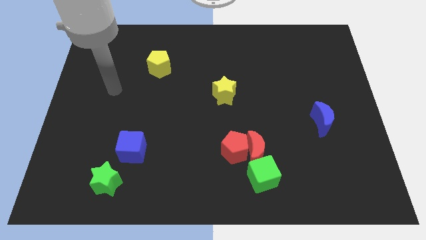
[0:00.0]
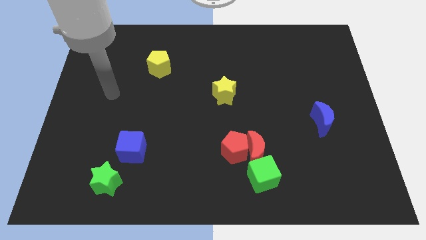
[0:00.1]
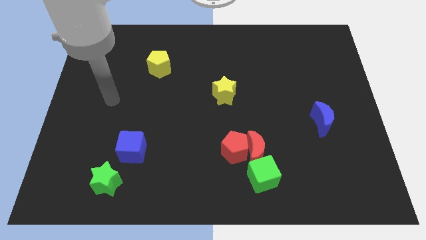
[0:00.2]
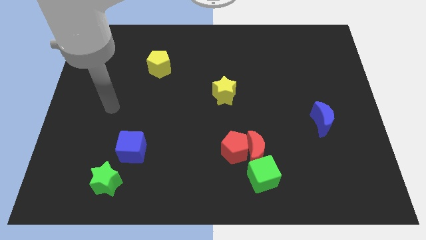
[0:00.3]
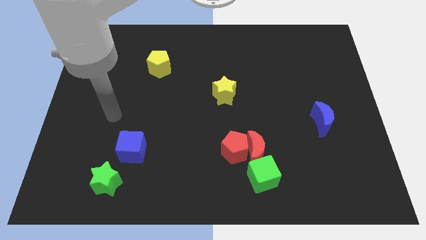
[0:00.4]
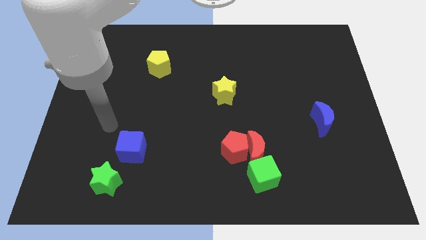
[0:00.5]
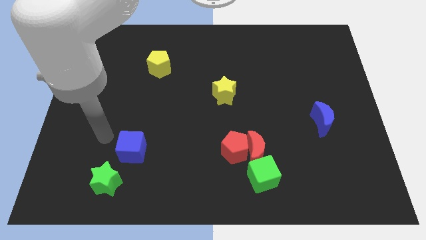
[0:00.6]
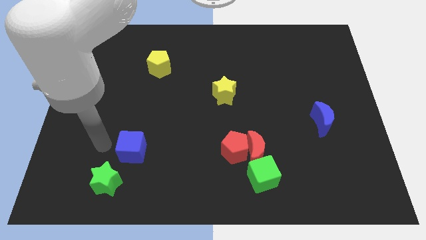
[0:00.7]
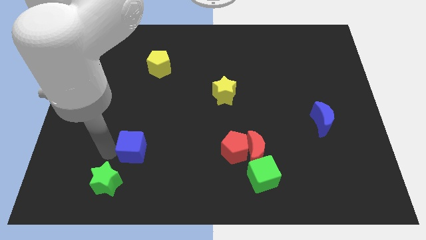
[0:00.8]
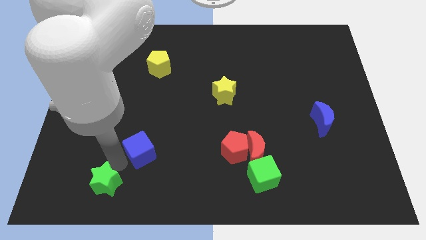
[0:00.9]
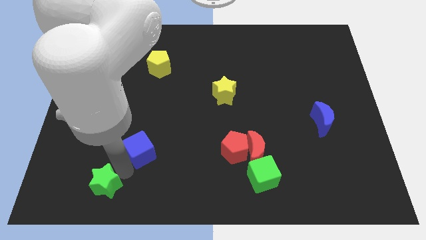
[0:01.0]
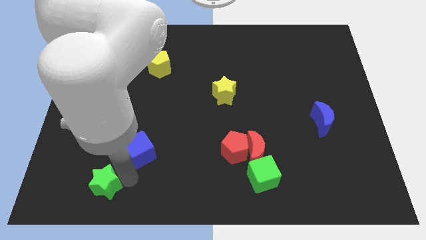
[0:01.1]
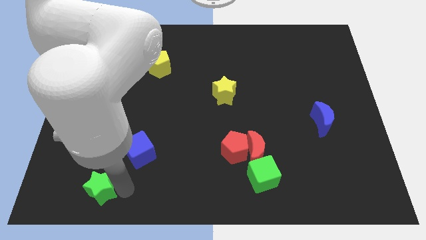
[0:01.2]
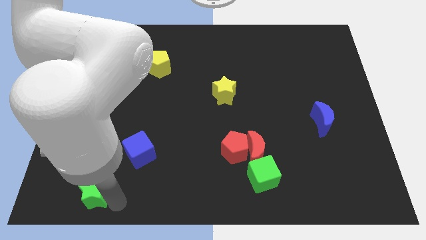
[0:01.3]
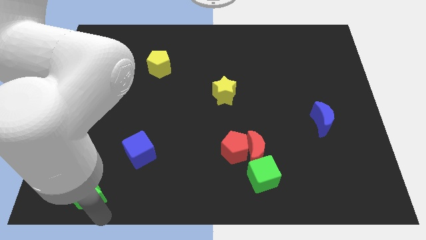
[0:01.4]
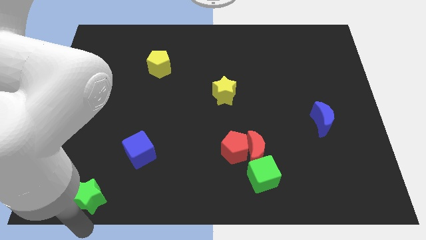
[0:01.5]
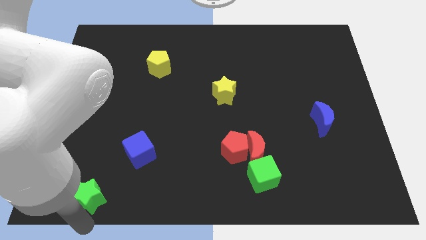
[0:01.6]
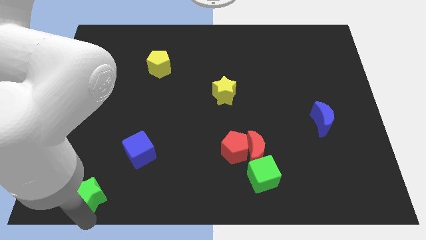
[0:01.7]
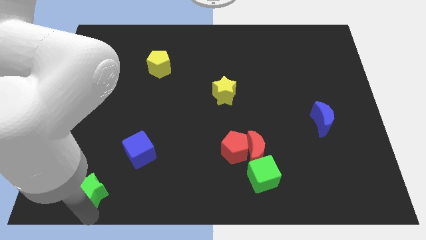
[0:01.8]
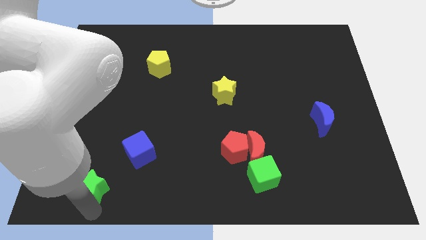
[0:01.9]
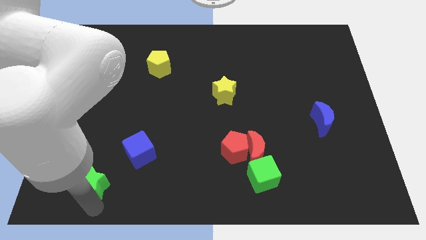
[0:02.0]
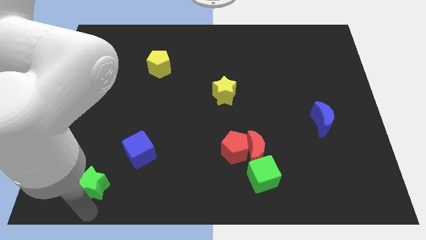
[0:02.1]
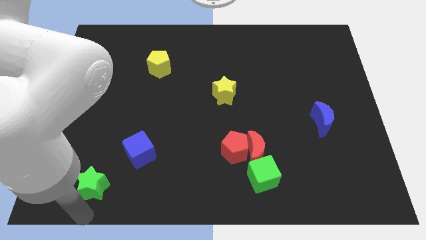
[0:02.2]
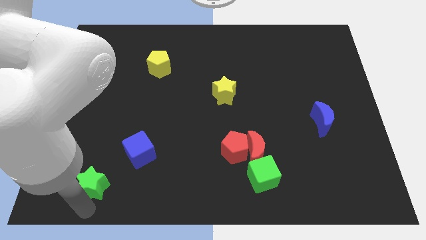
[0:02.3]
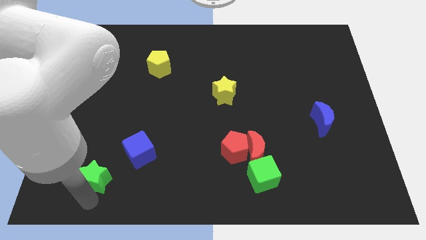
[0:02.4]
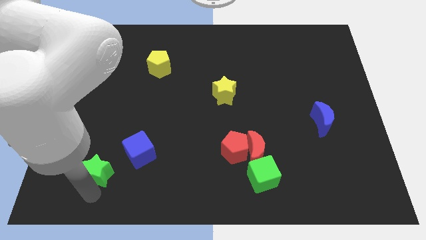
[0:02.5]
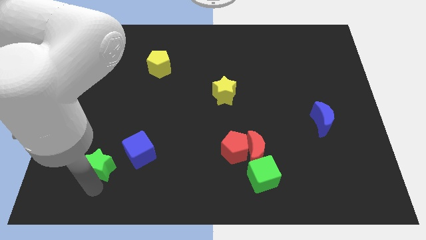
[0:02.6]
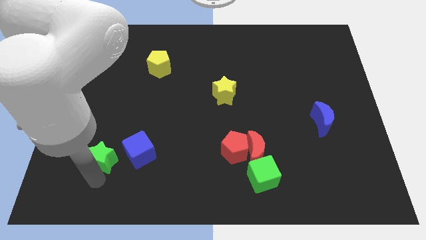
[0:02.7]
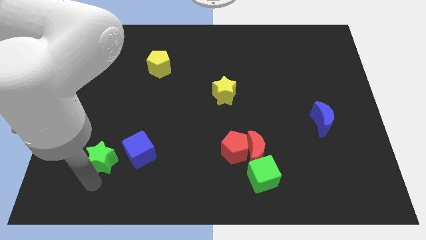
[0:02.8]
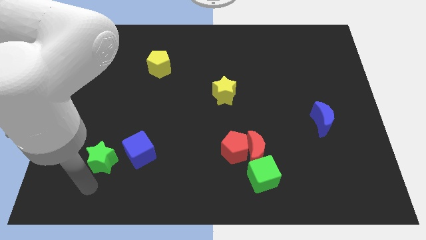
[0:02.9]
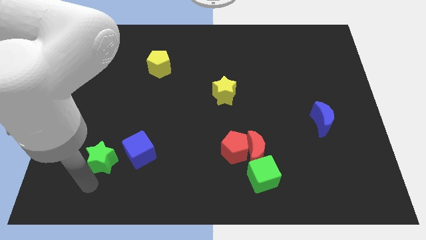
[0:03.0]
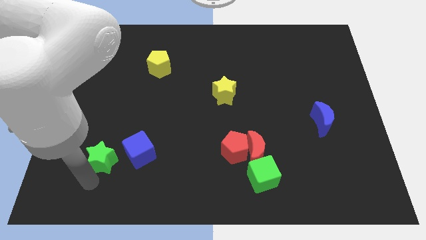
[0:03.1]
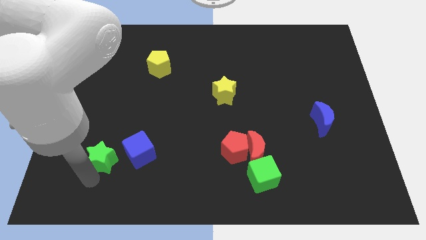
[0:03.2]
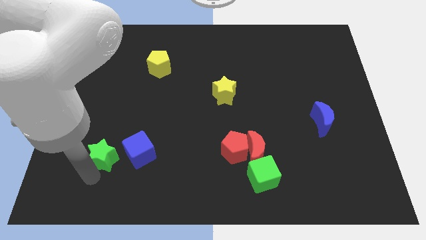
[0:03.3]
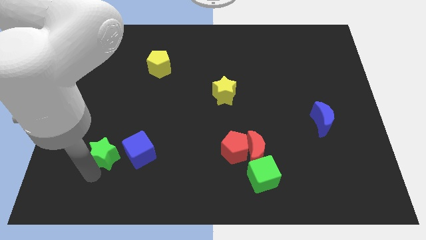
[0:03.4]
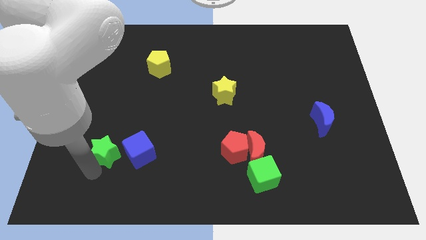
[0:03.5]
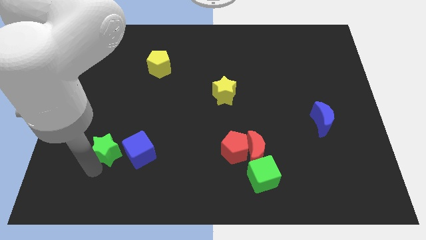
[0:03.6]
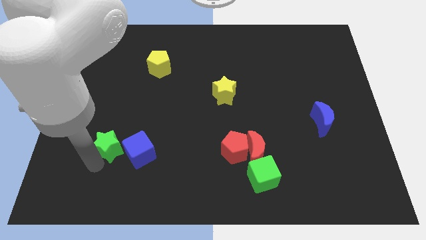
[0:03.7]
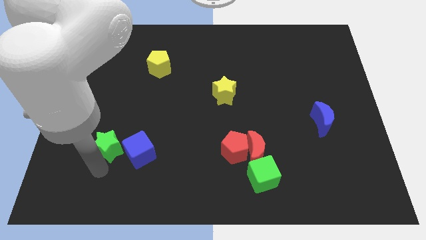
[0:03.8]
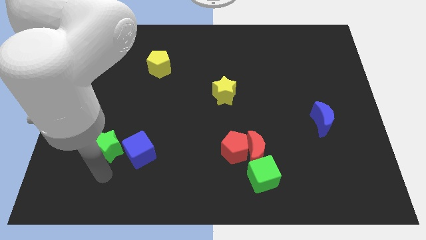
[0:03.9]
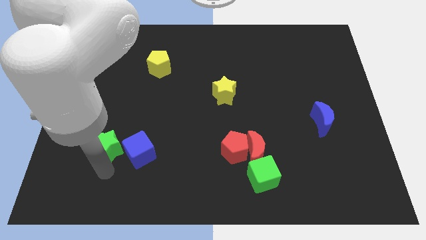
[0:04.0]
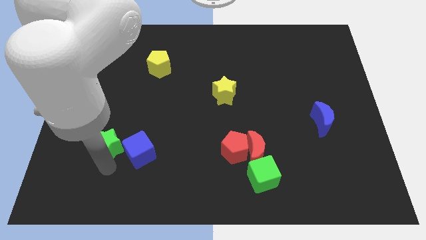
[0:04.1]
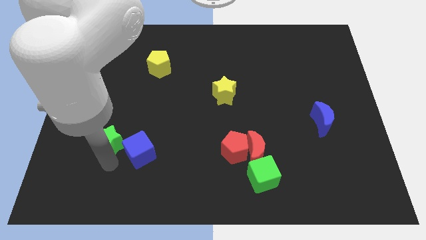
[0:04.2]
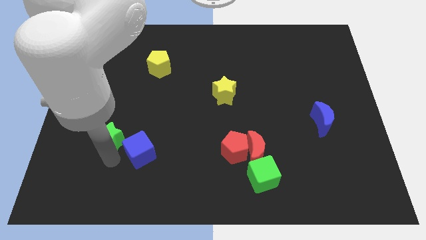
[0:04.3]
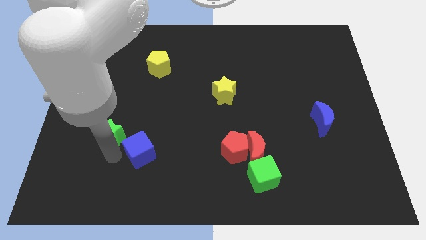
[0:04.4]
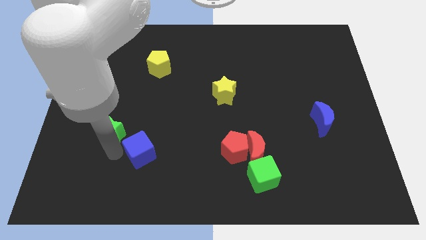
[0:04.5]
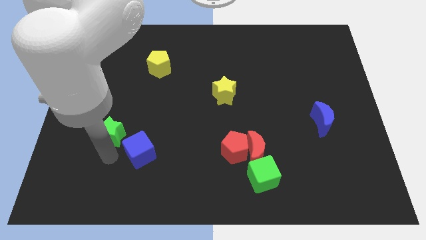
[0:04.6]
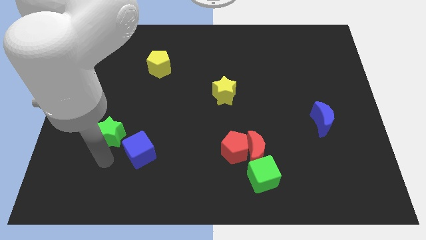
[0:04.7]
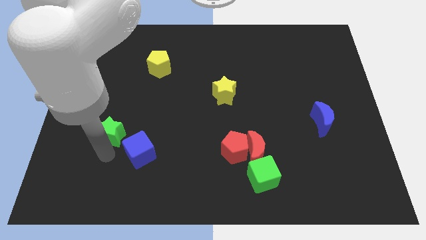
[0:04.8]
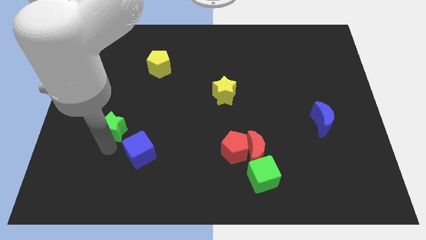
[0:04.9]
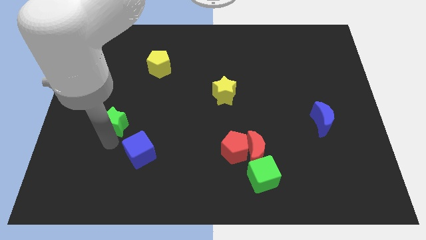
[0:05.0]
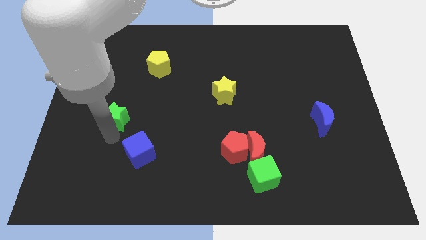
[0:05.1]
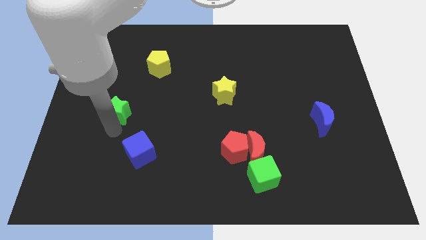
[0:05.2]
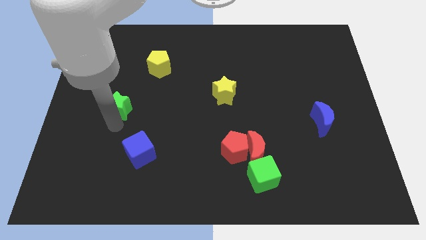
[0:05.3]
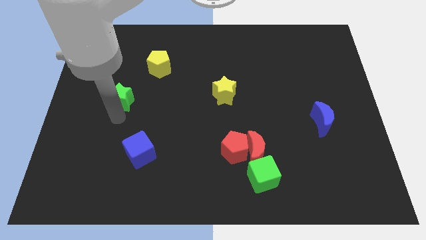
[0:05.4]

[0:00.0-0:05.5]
move the green star upwards

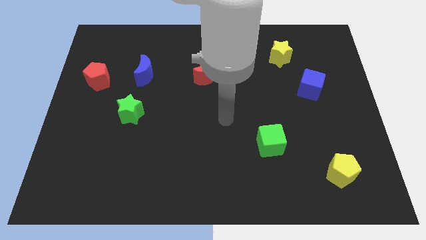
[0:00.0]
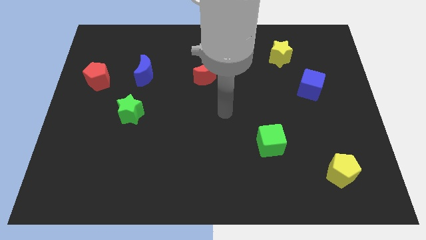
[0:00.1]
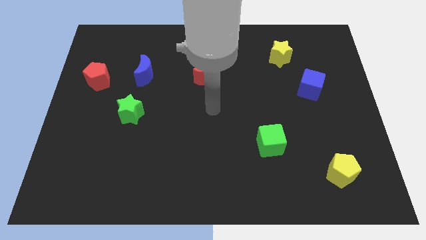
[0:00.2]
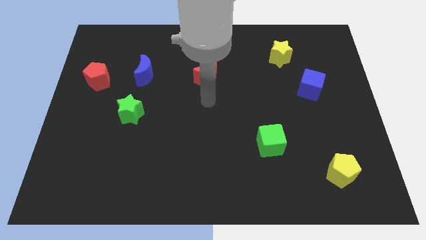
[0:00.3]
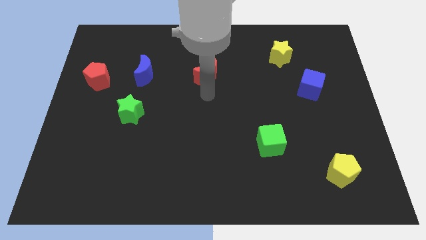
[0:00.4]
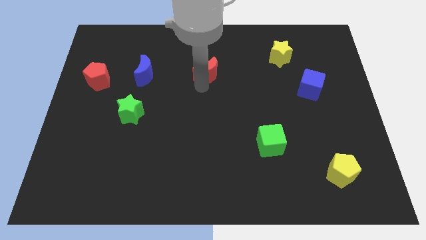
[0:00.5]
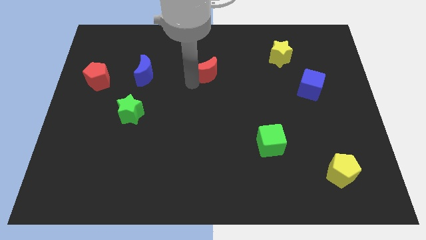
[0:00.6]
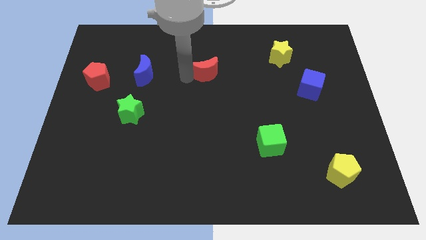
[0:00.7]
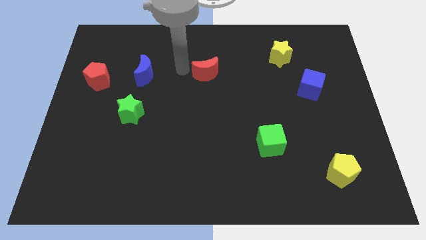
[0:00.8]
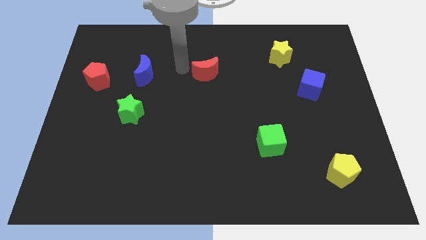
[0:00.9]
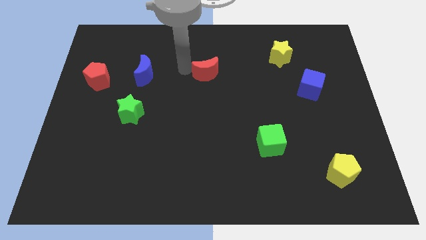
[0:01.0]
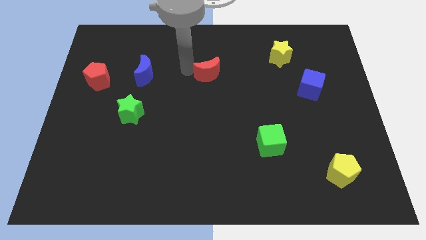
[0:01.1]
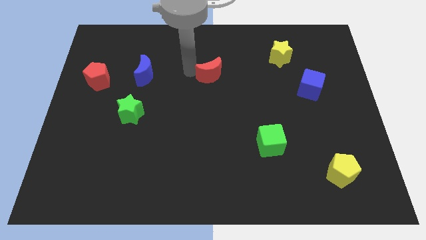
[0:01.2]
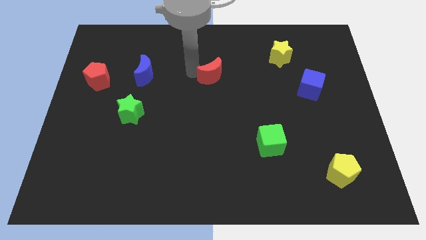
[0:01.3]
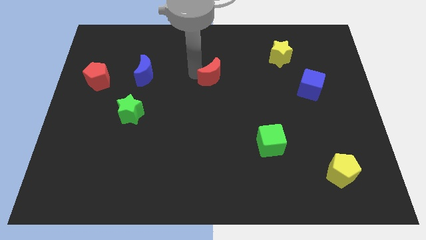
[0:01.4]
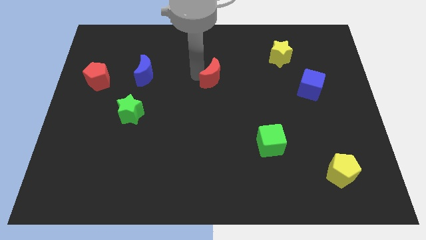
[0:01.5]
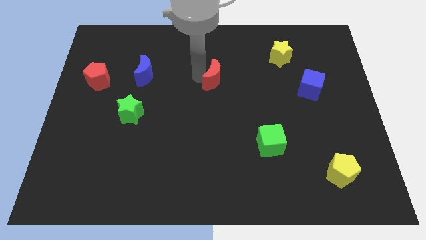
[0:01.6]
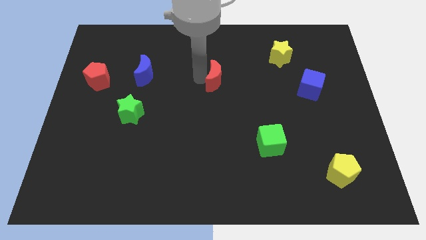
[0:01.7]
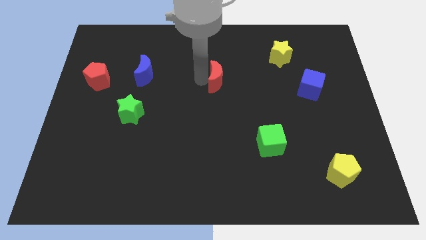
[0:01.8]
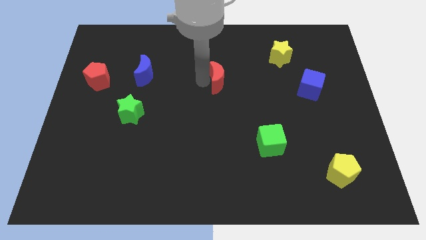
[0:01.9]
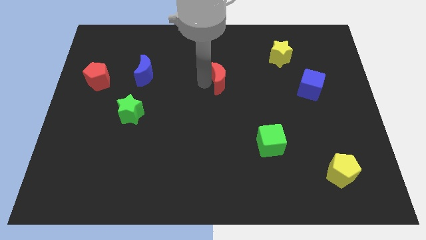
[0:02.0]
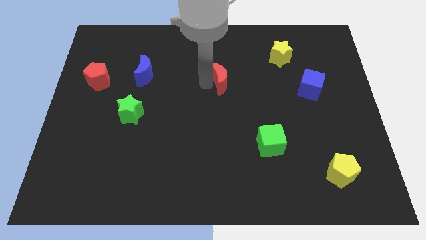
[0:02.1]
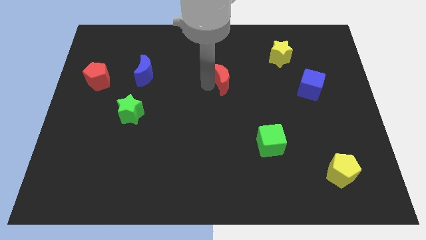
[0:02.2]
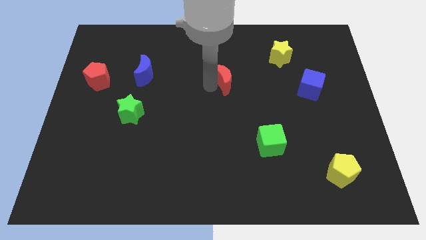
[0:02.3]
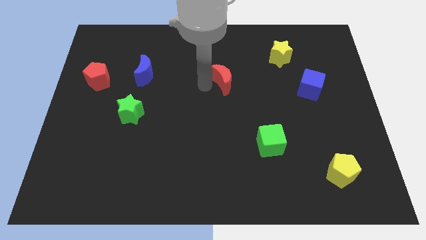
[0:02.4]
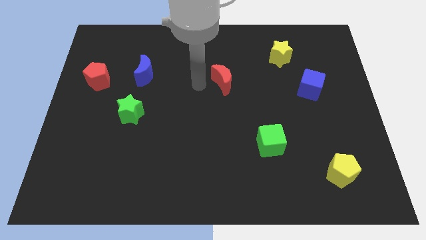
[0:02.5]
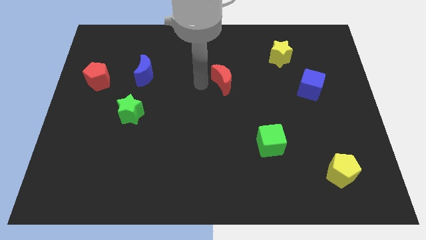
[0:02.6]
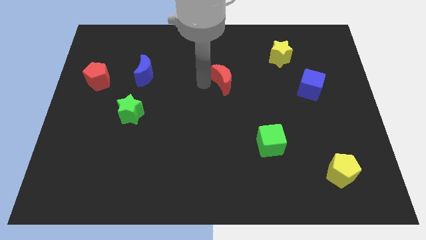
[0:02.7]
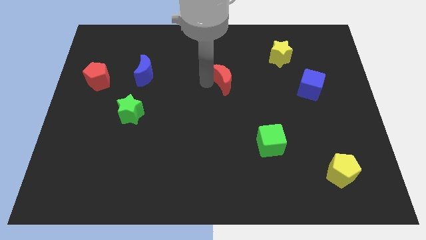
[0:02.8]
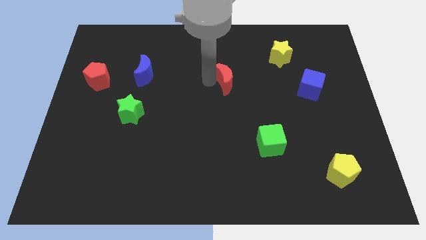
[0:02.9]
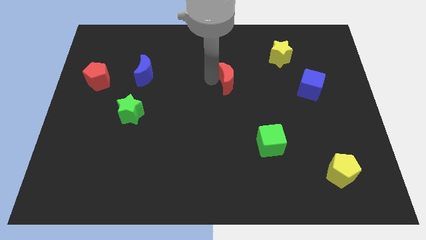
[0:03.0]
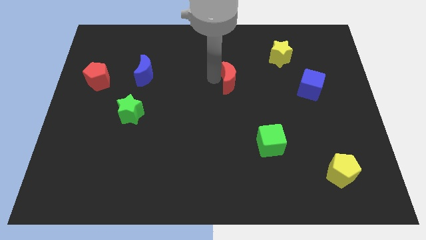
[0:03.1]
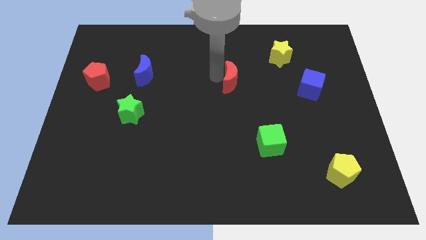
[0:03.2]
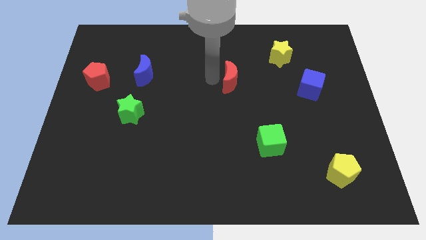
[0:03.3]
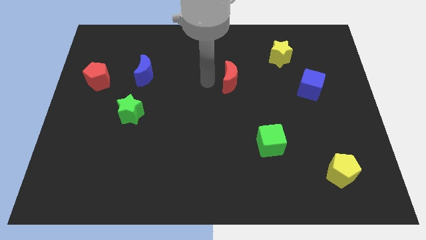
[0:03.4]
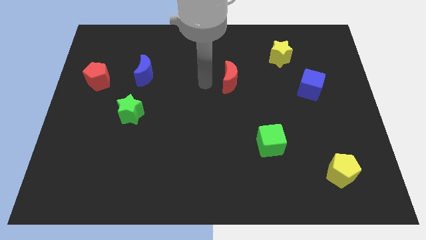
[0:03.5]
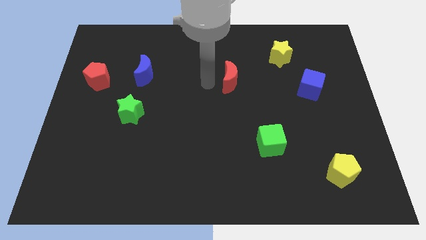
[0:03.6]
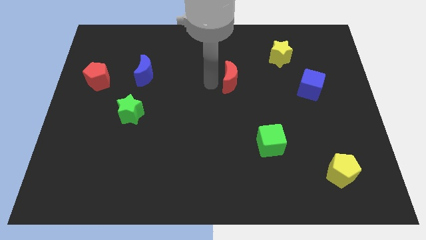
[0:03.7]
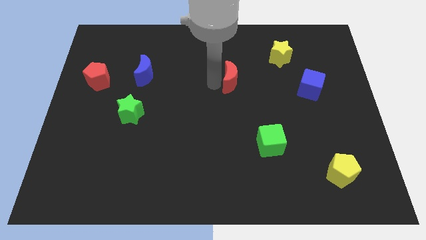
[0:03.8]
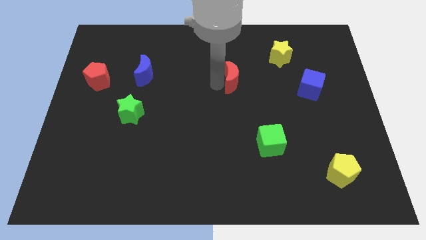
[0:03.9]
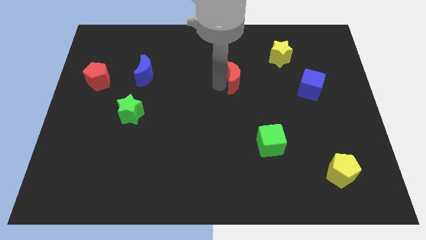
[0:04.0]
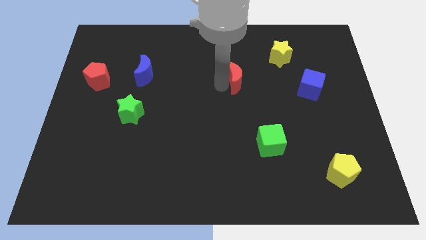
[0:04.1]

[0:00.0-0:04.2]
slightly slide the red moon right
